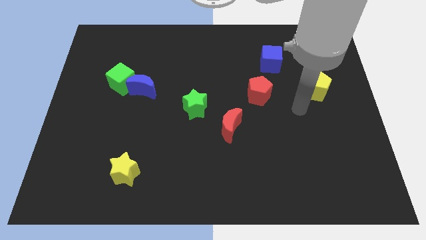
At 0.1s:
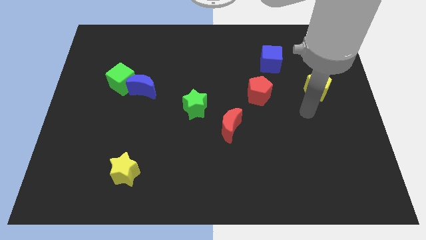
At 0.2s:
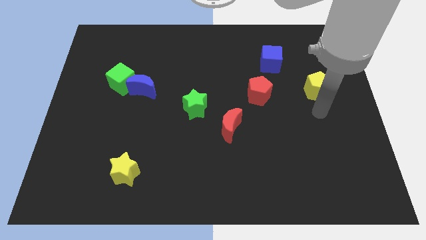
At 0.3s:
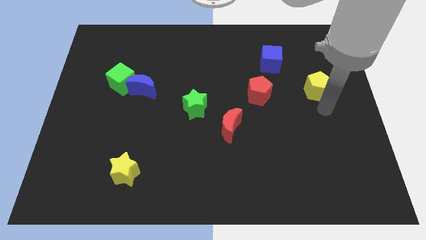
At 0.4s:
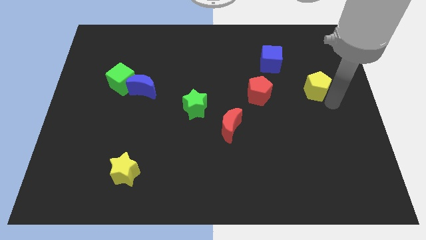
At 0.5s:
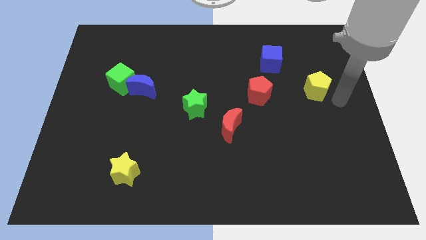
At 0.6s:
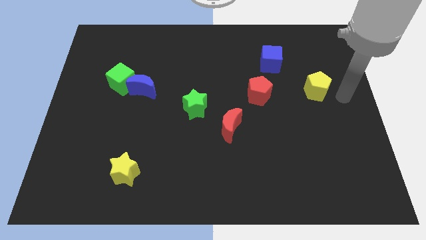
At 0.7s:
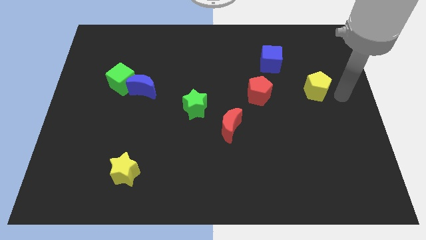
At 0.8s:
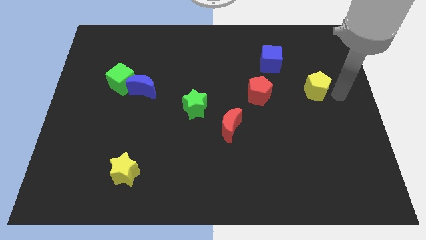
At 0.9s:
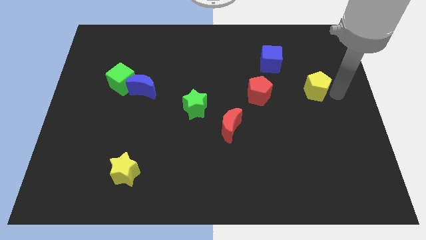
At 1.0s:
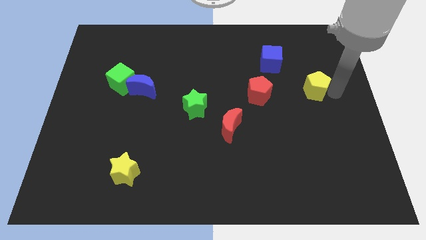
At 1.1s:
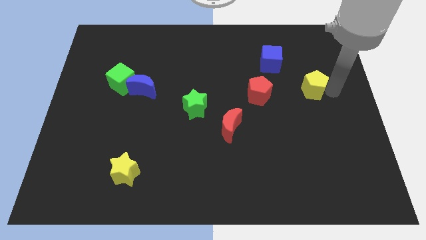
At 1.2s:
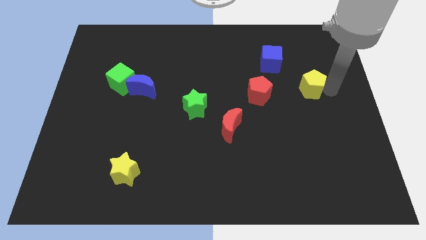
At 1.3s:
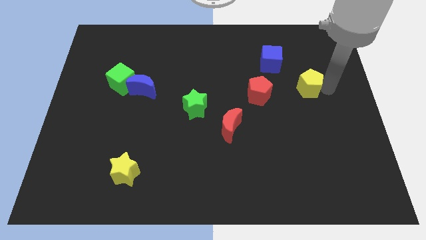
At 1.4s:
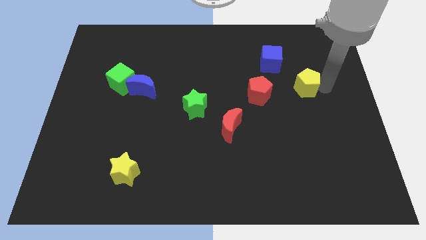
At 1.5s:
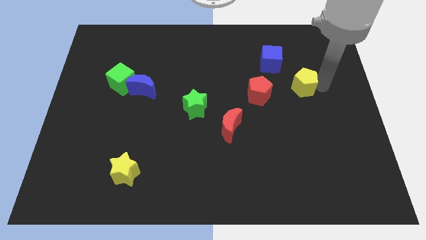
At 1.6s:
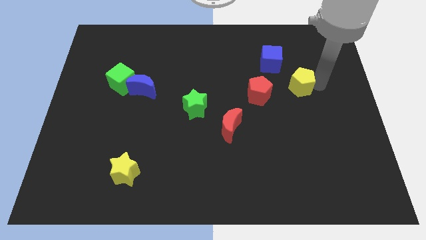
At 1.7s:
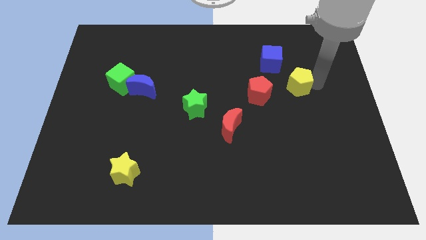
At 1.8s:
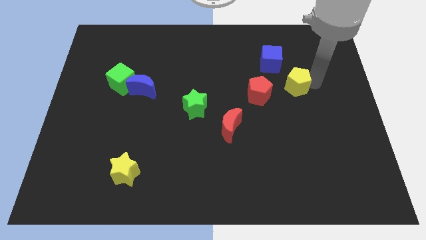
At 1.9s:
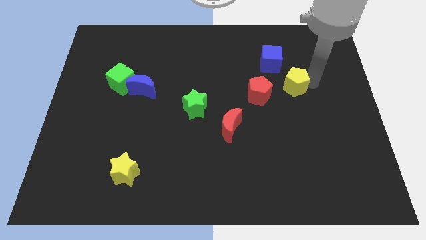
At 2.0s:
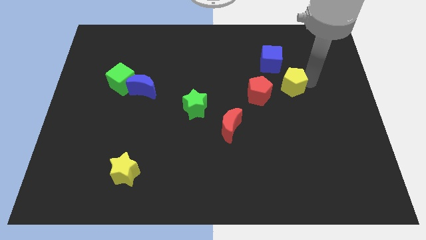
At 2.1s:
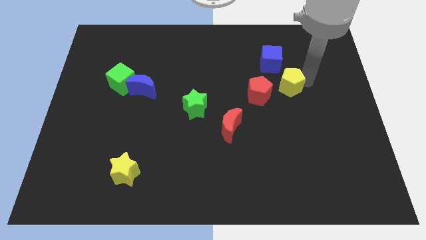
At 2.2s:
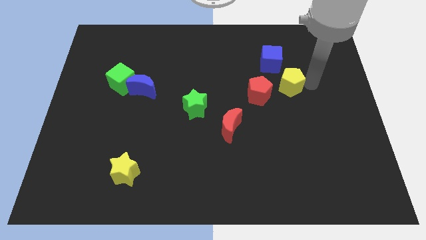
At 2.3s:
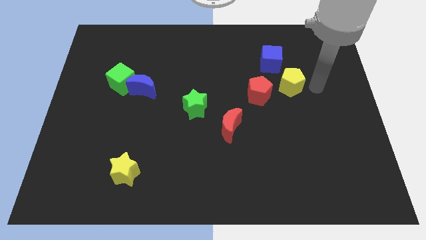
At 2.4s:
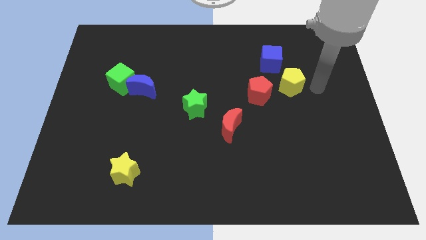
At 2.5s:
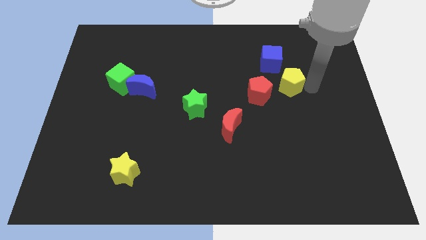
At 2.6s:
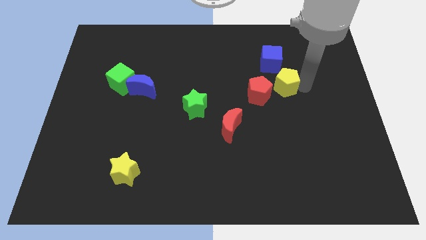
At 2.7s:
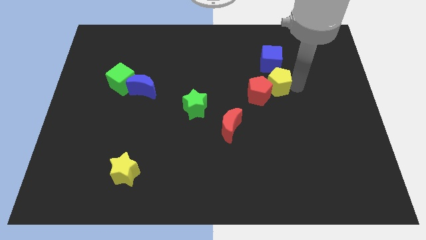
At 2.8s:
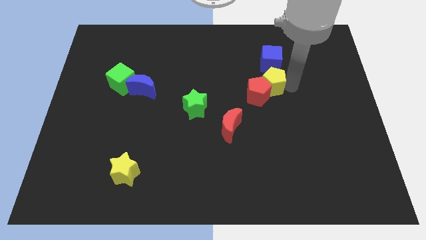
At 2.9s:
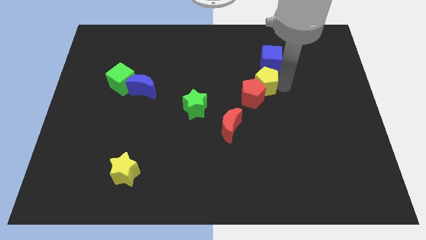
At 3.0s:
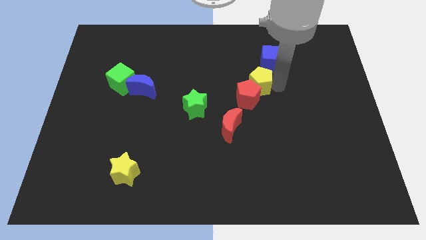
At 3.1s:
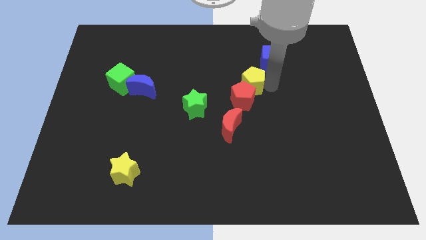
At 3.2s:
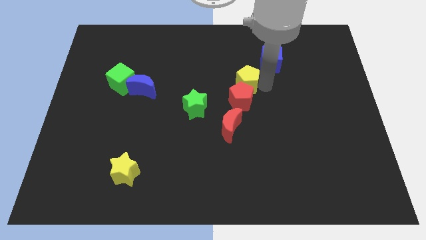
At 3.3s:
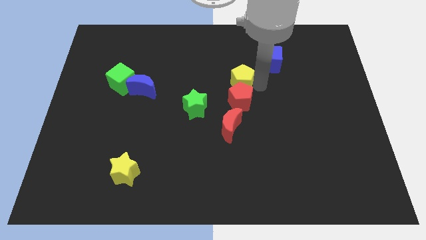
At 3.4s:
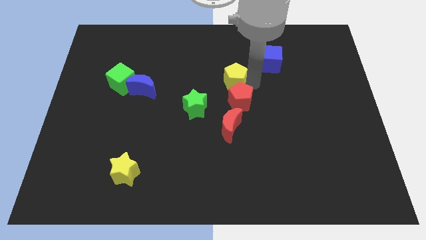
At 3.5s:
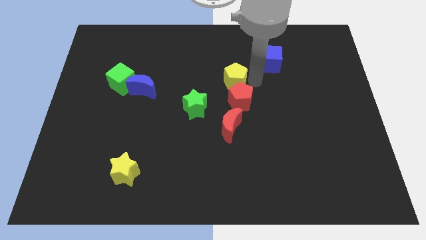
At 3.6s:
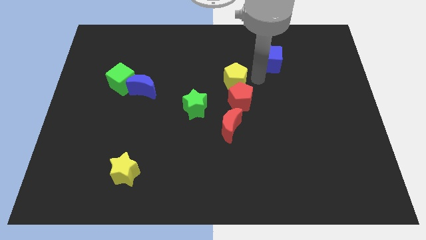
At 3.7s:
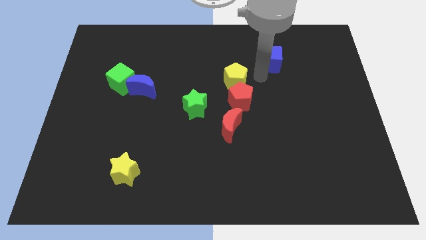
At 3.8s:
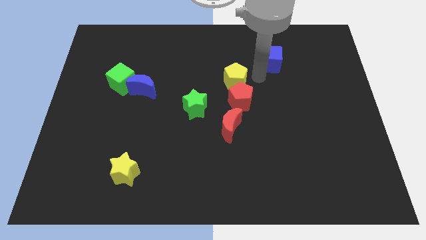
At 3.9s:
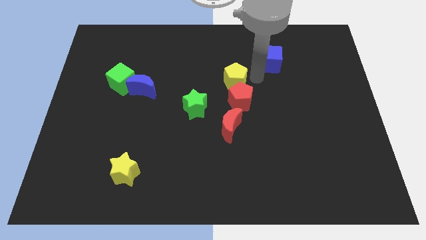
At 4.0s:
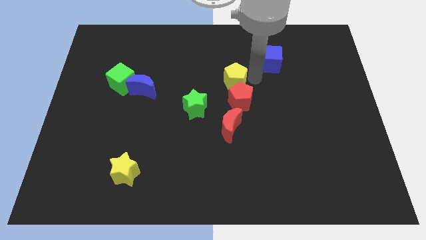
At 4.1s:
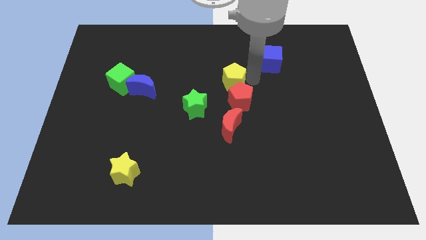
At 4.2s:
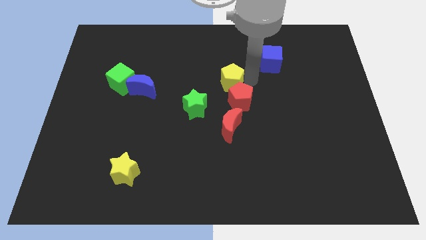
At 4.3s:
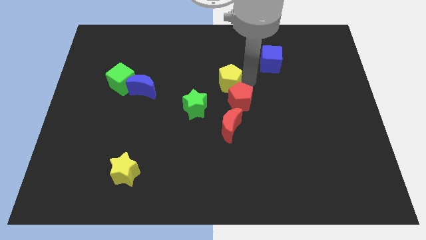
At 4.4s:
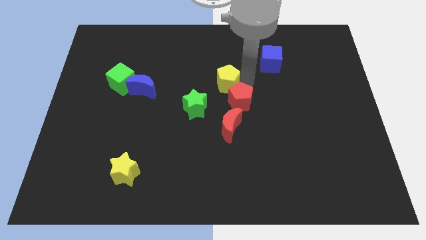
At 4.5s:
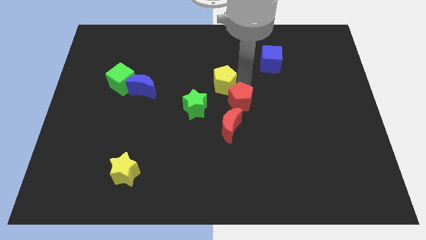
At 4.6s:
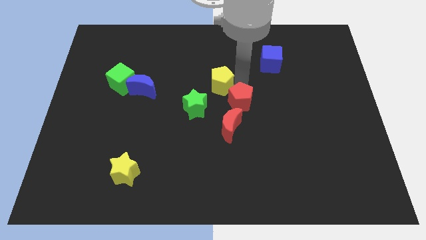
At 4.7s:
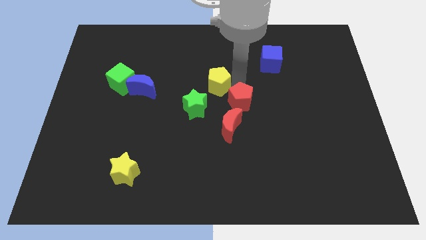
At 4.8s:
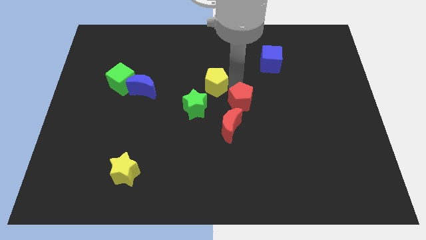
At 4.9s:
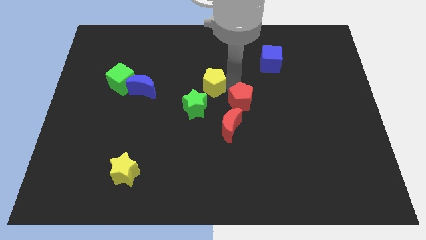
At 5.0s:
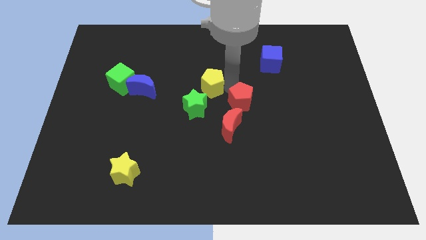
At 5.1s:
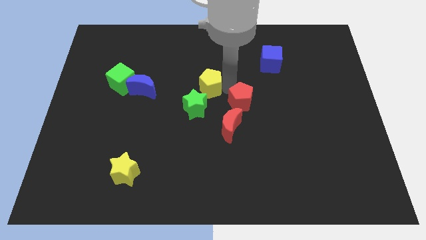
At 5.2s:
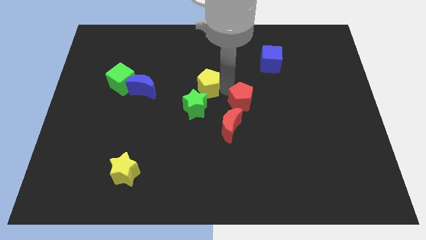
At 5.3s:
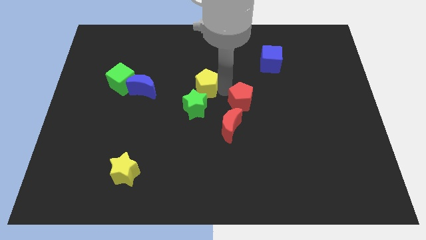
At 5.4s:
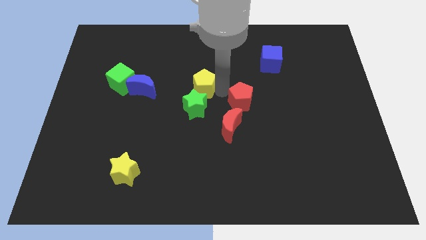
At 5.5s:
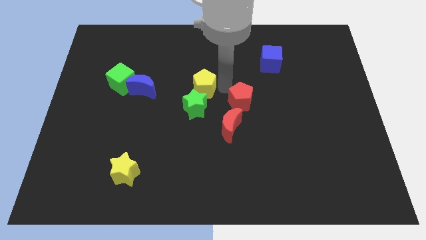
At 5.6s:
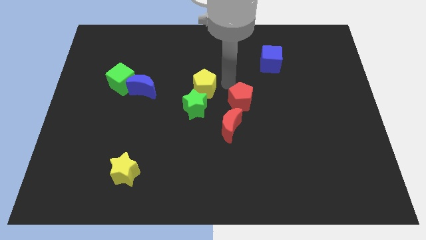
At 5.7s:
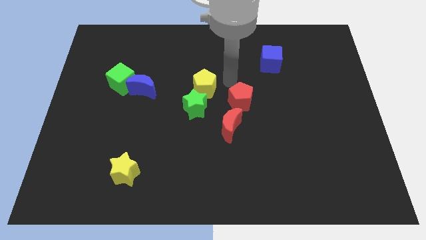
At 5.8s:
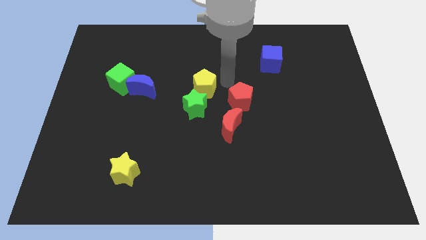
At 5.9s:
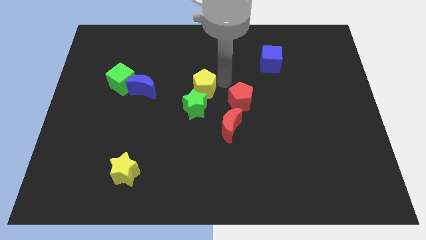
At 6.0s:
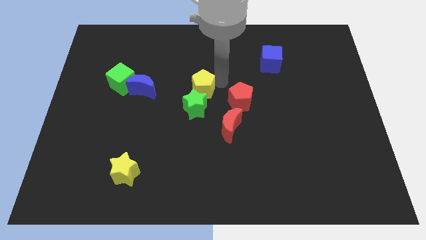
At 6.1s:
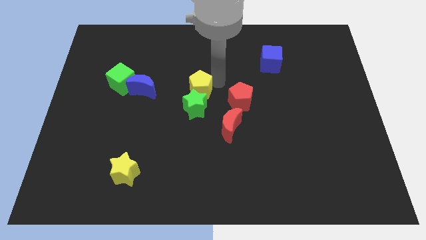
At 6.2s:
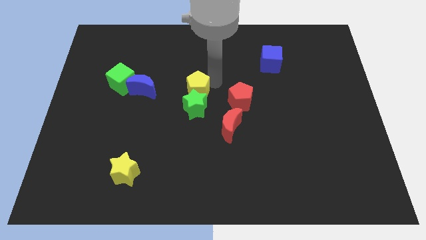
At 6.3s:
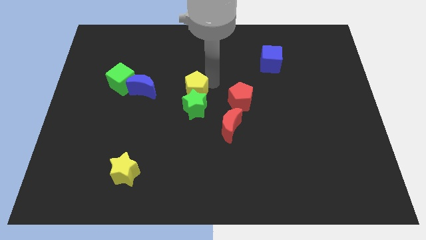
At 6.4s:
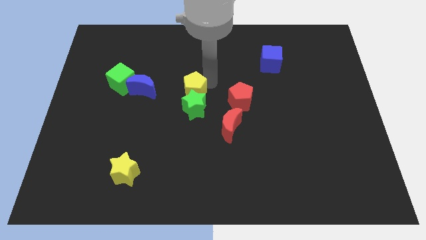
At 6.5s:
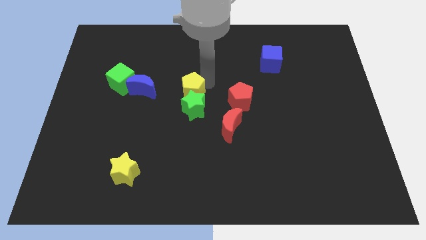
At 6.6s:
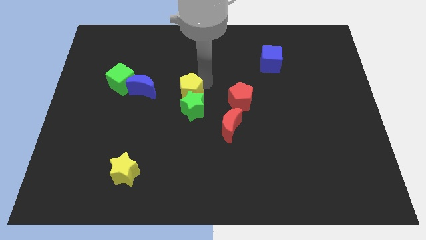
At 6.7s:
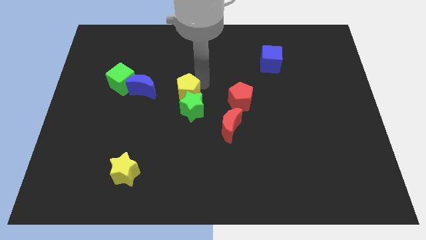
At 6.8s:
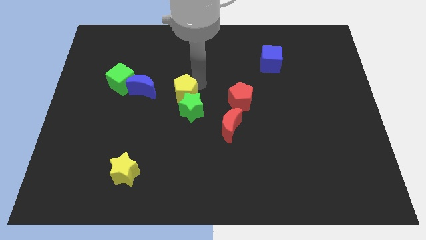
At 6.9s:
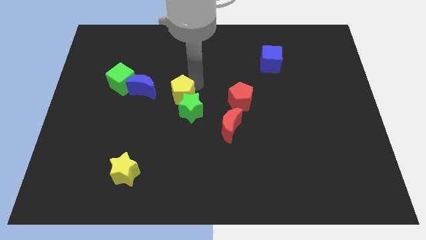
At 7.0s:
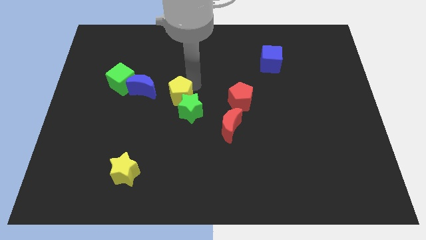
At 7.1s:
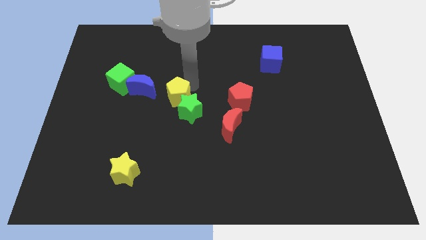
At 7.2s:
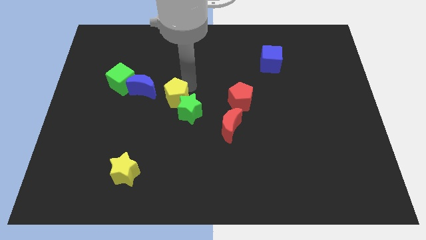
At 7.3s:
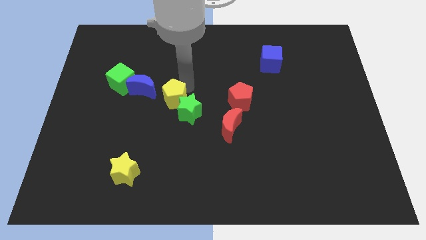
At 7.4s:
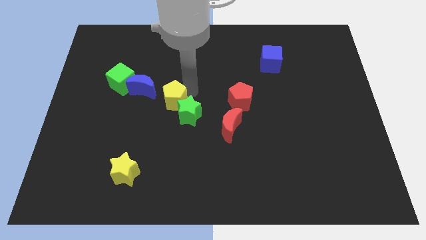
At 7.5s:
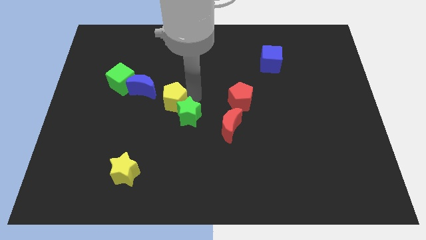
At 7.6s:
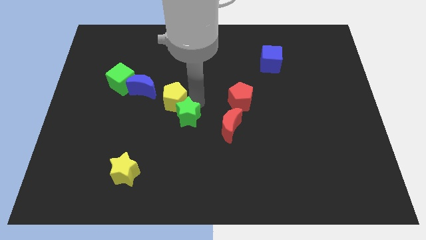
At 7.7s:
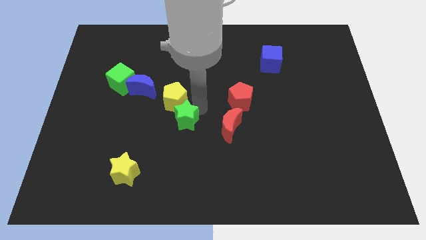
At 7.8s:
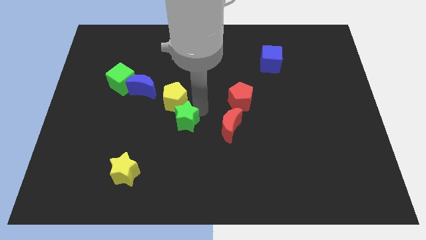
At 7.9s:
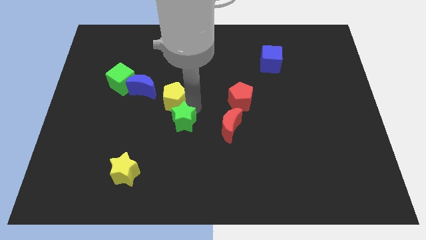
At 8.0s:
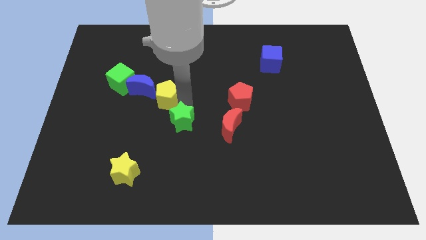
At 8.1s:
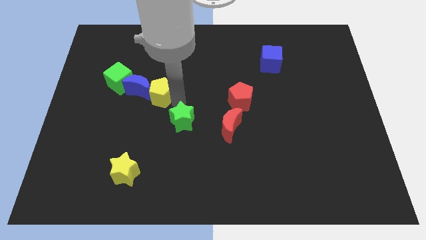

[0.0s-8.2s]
push the yellow pentagon to the blue moon
